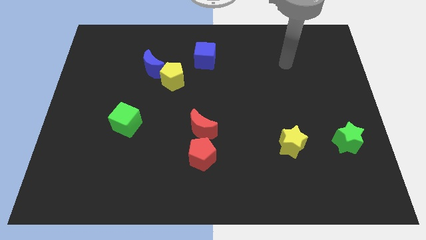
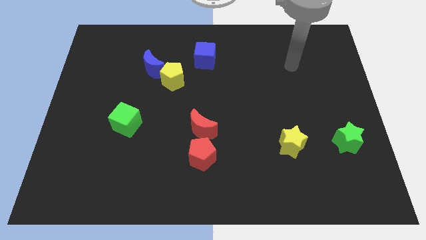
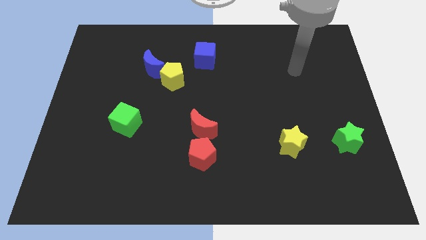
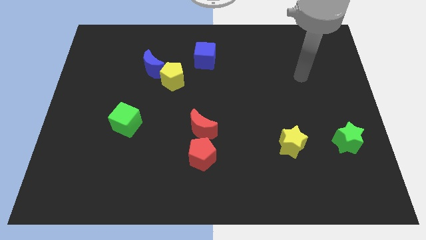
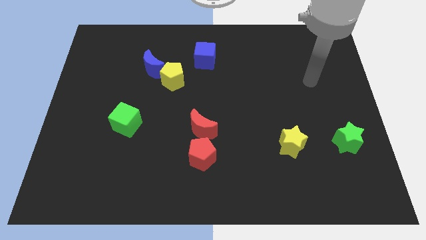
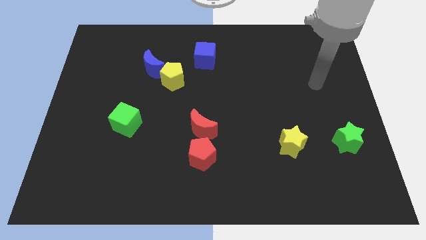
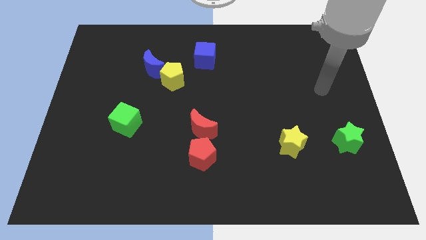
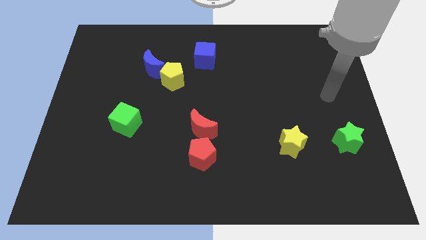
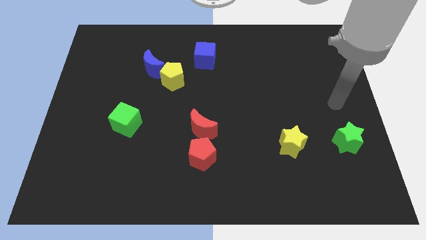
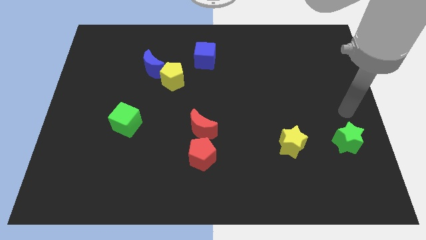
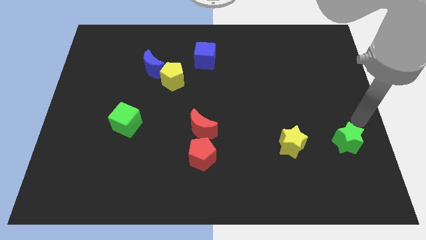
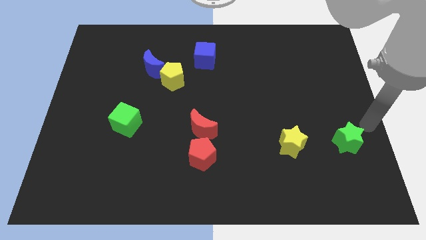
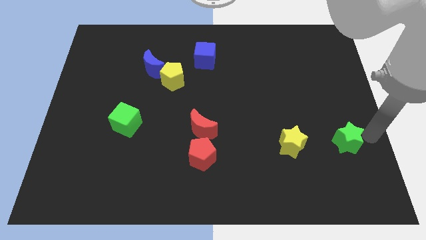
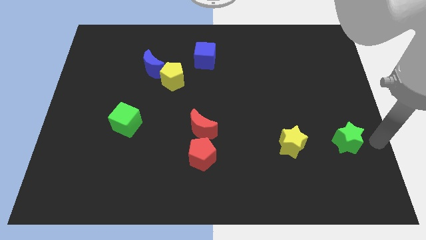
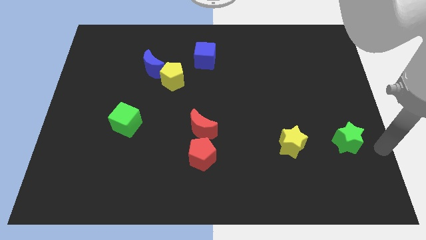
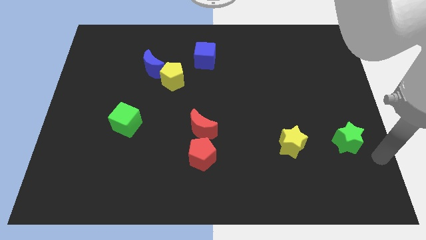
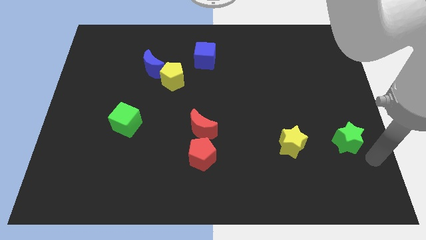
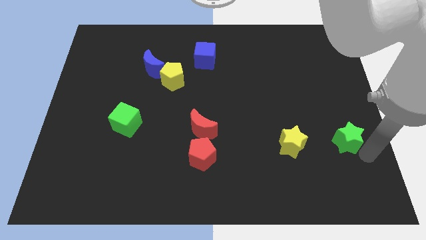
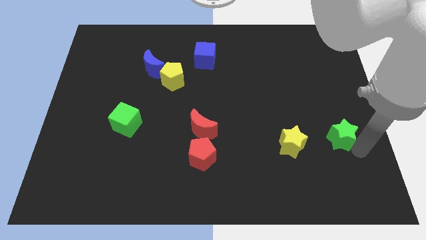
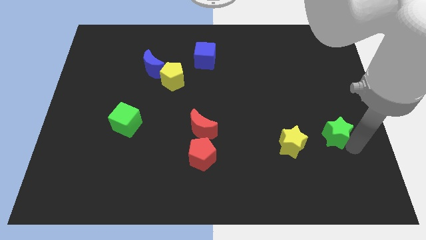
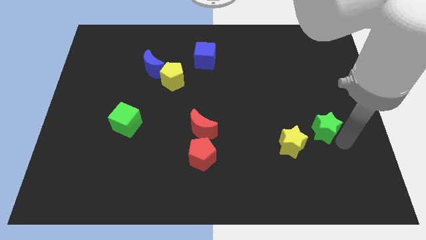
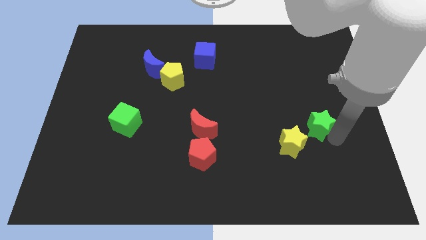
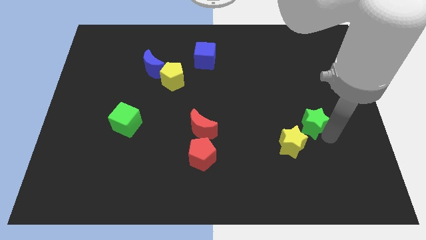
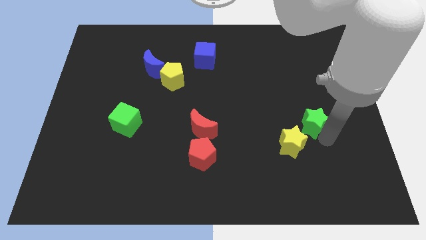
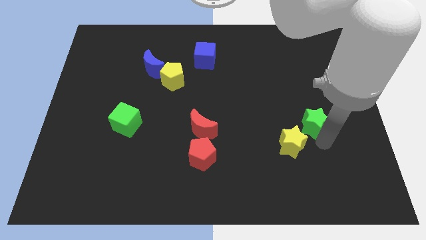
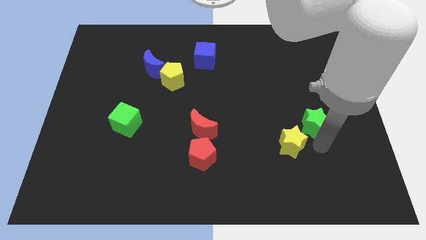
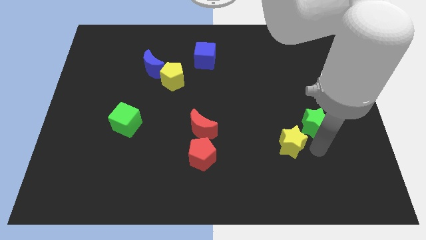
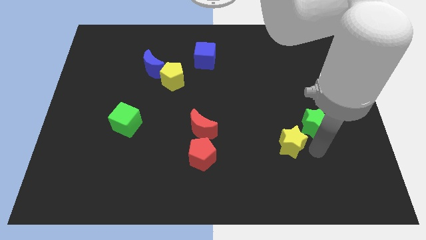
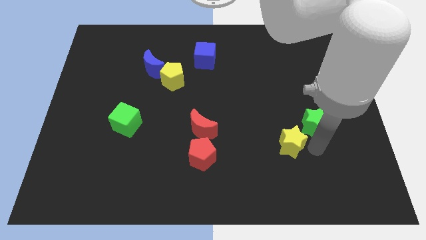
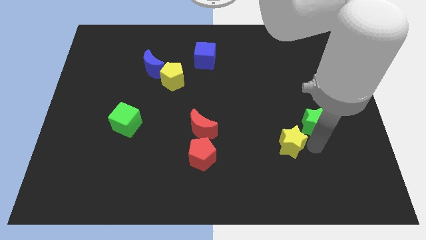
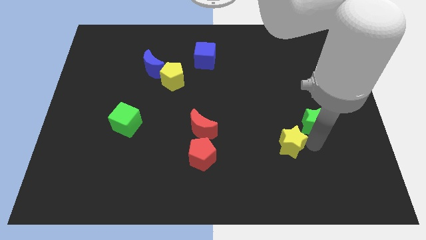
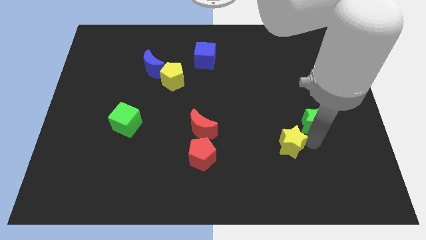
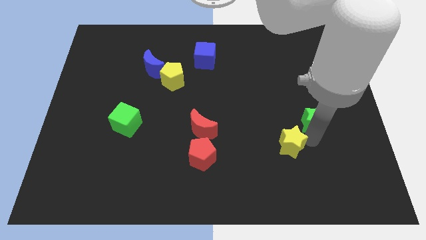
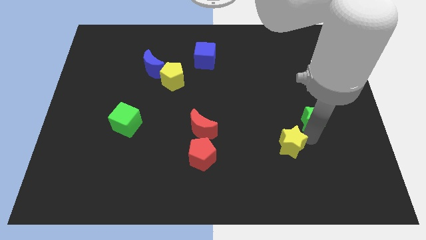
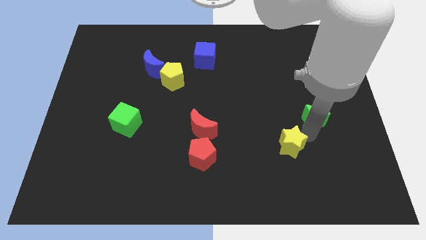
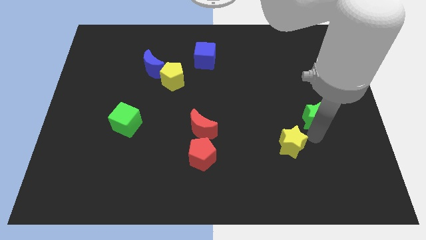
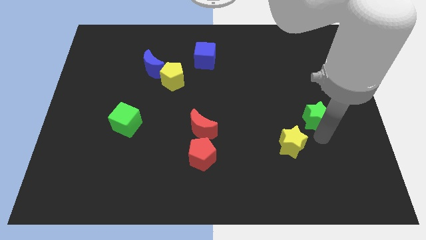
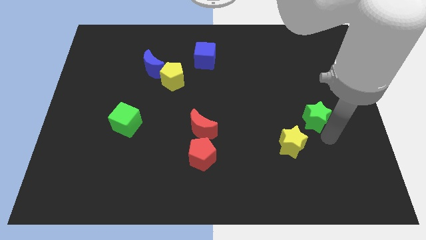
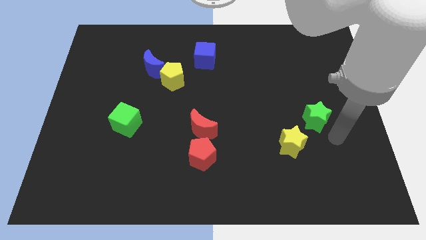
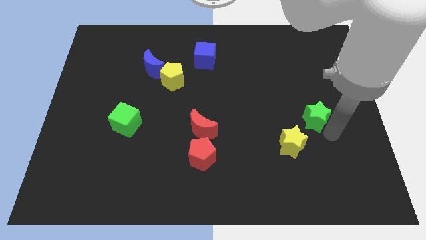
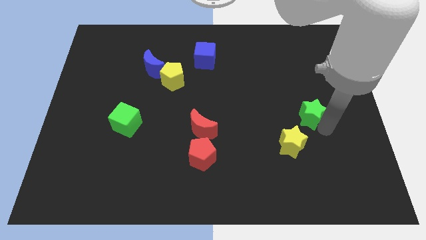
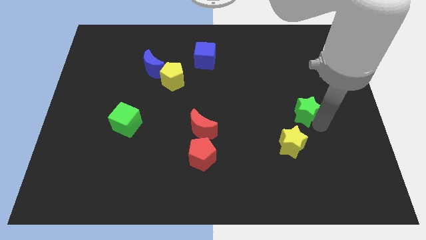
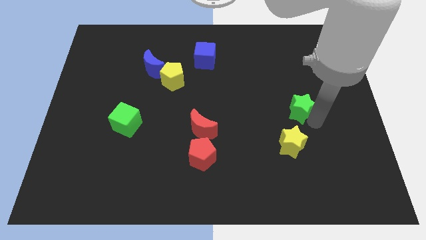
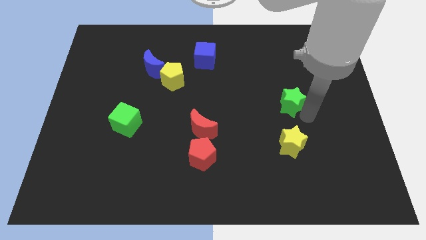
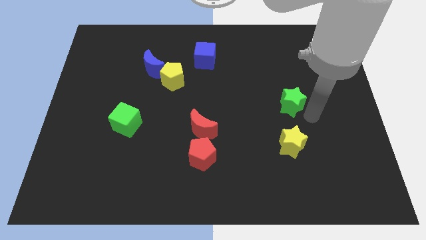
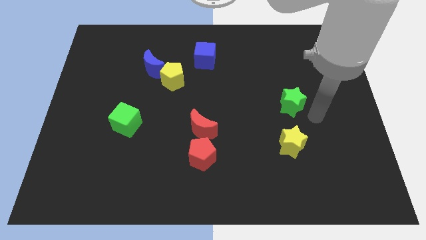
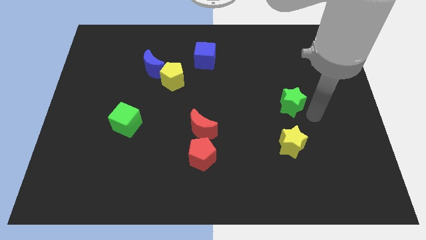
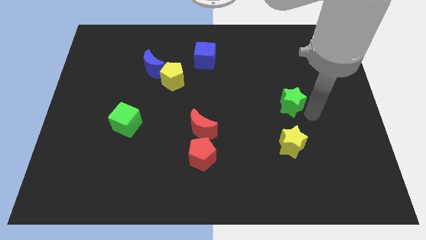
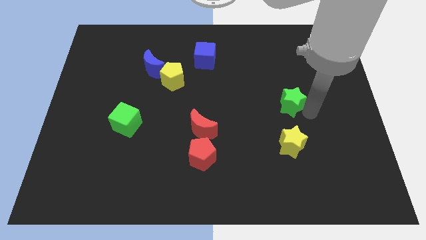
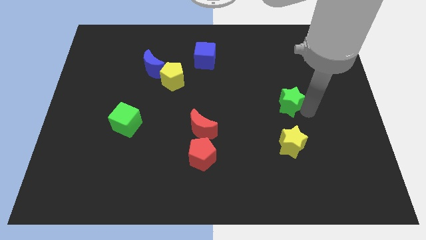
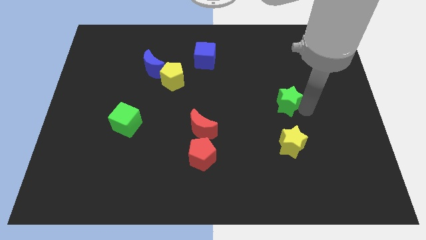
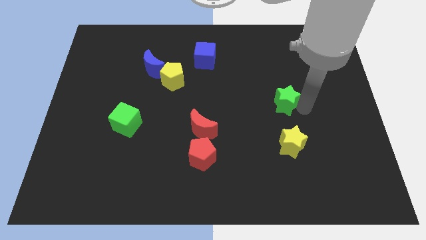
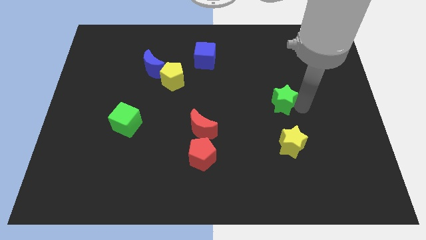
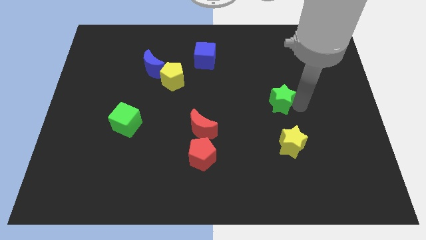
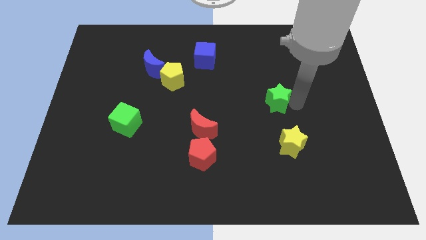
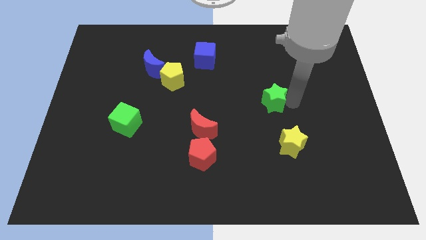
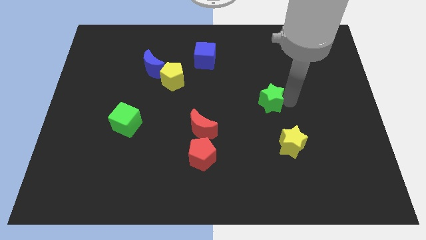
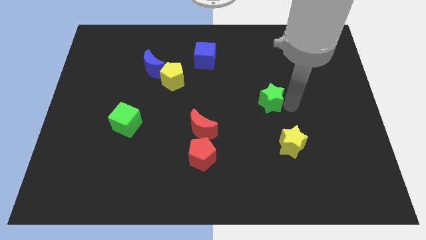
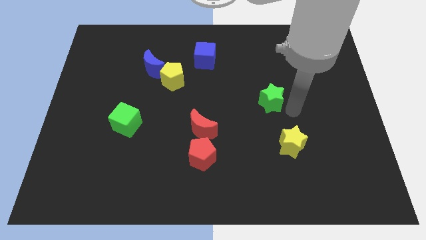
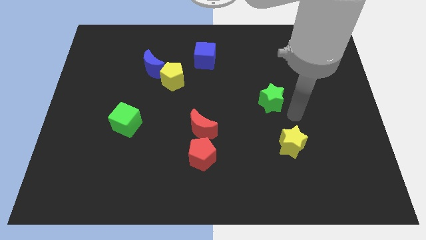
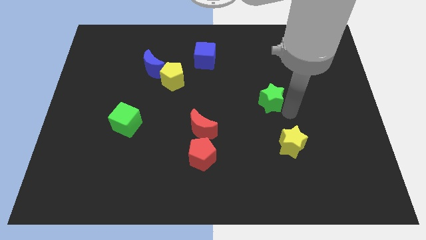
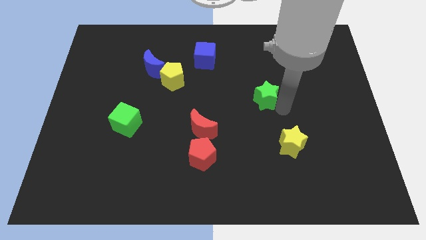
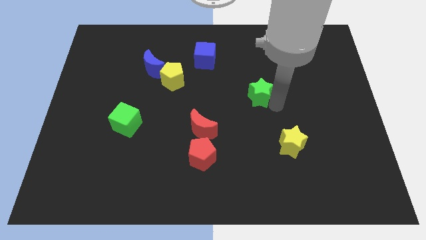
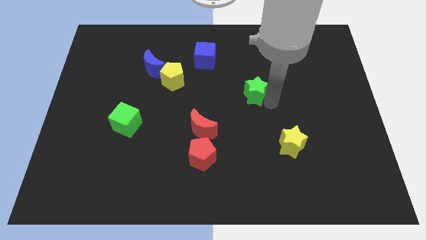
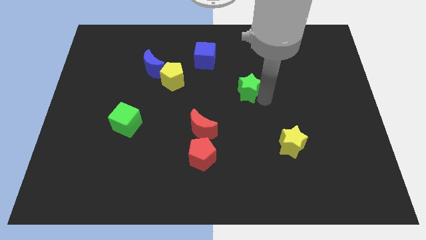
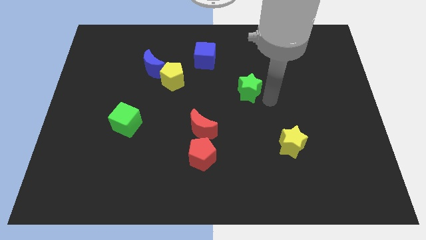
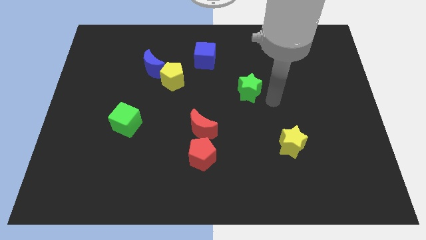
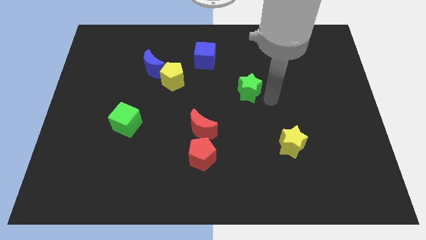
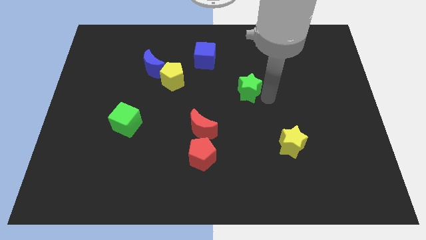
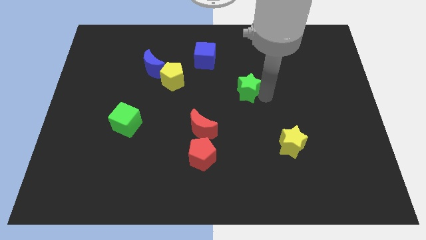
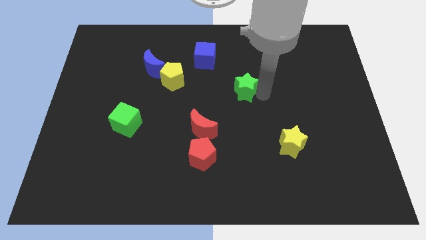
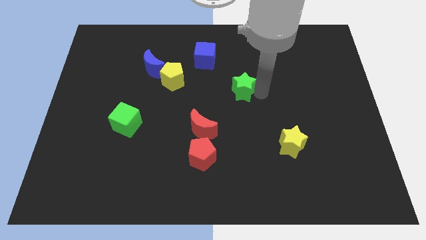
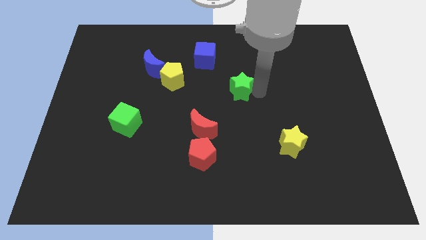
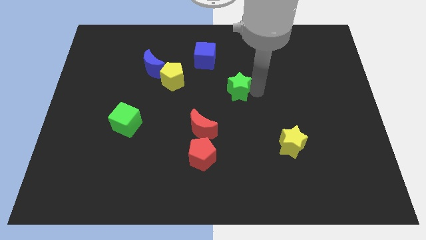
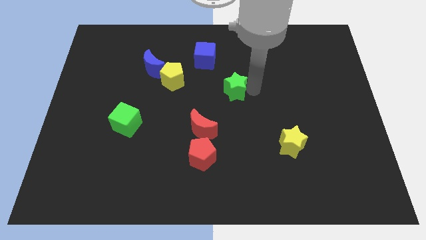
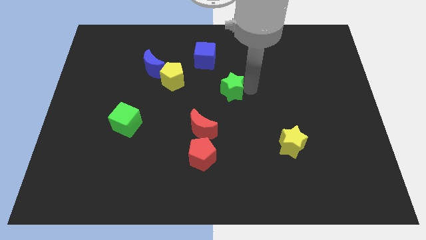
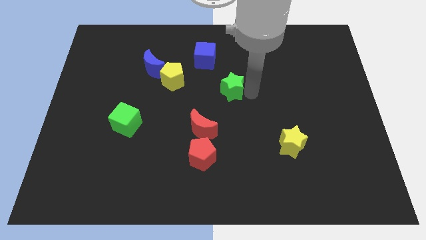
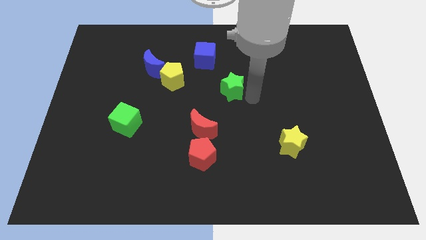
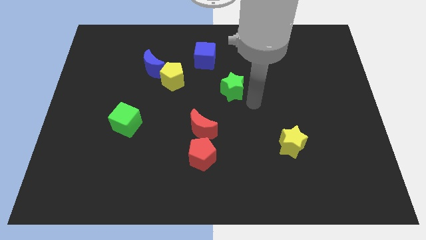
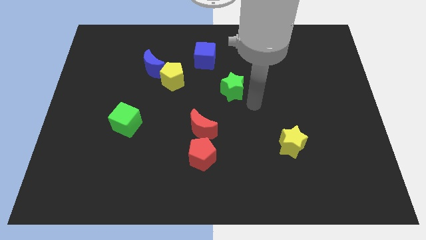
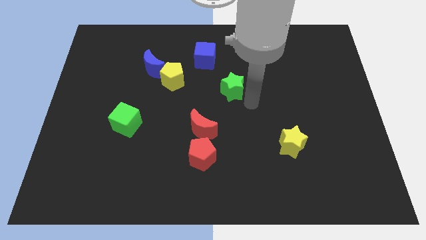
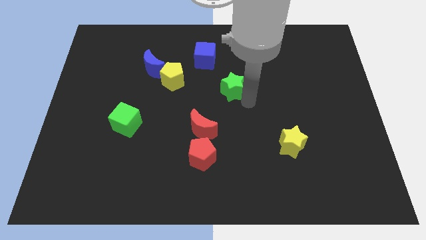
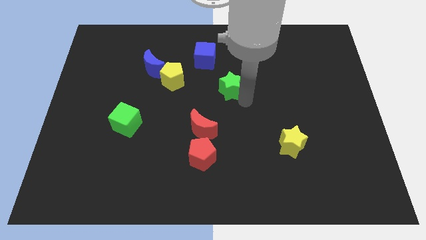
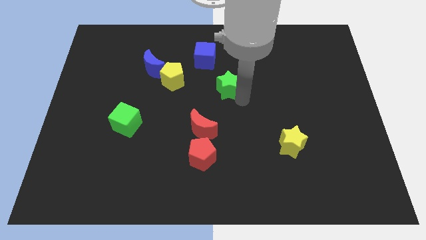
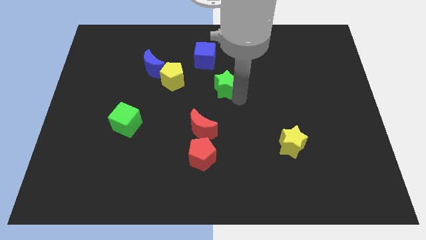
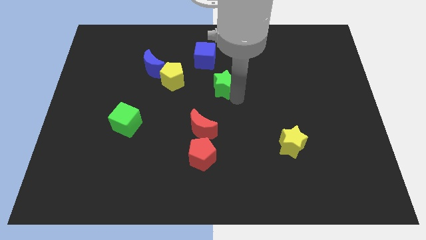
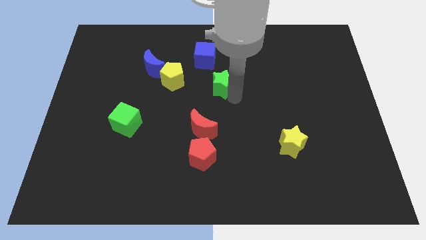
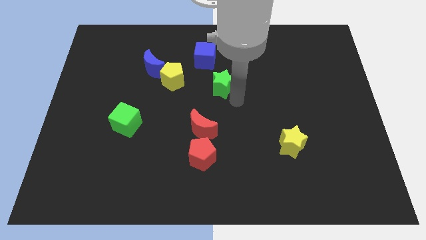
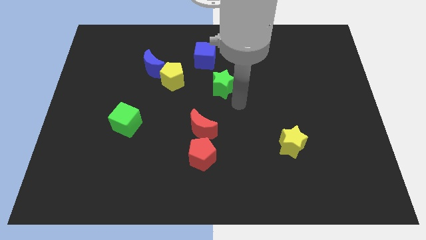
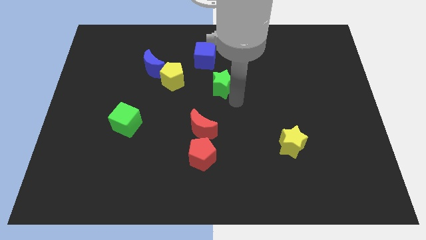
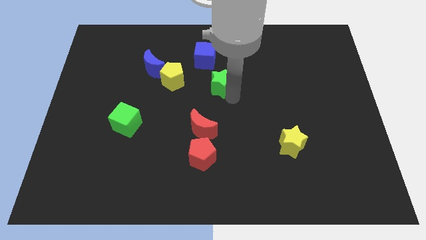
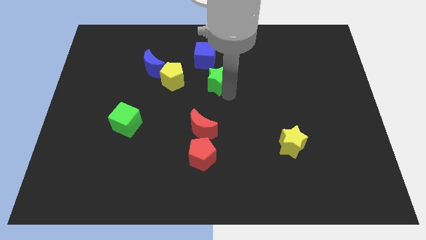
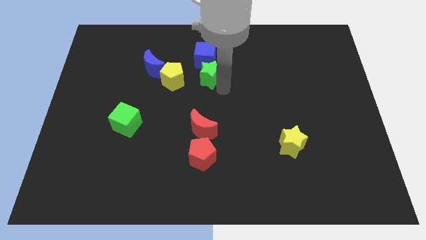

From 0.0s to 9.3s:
move the green star to the right side of the blue moon
